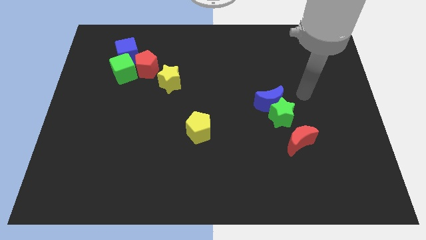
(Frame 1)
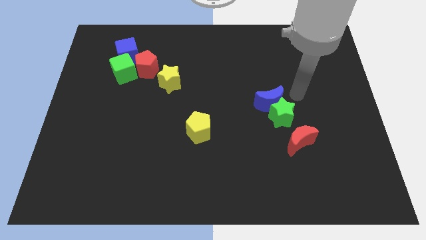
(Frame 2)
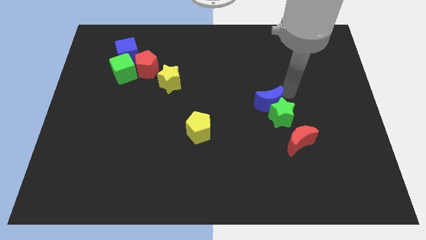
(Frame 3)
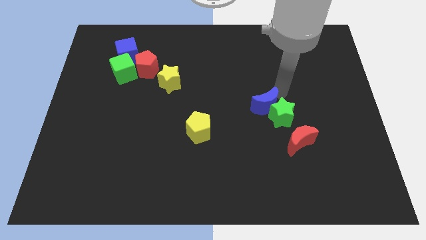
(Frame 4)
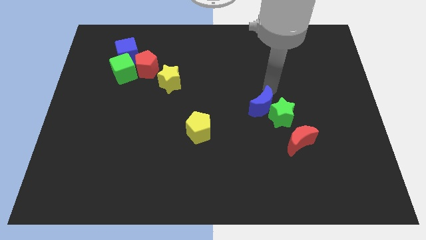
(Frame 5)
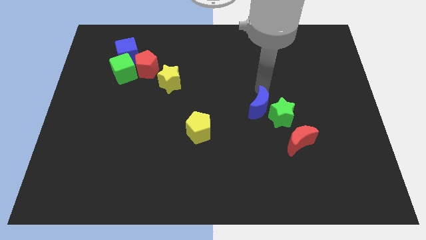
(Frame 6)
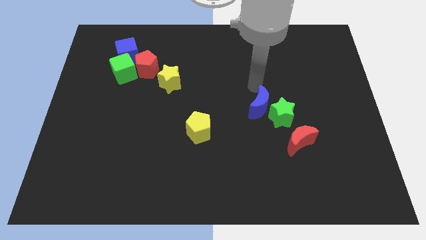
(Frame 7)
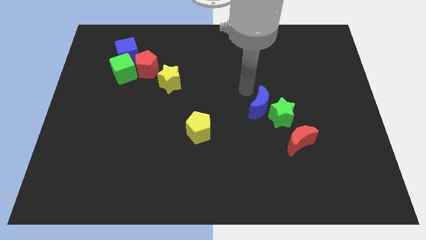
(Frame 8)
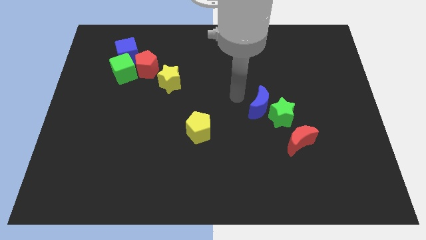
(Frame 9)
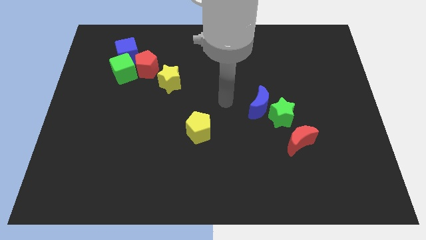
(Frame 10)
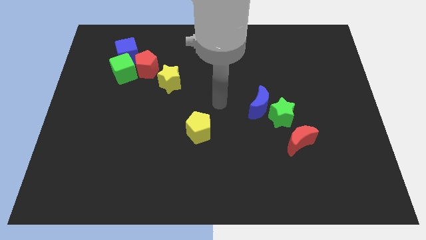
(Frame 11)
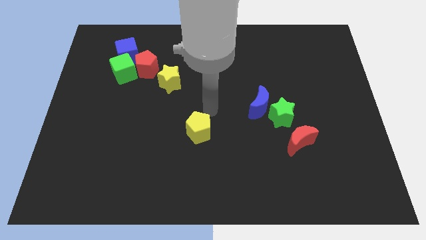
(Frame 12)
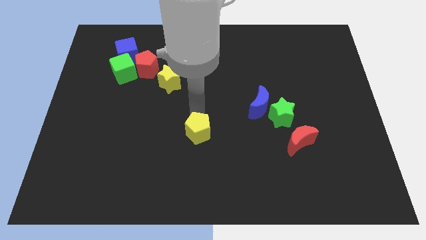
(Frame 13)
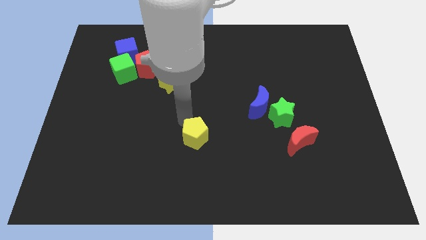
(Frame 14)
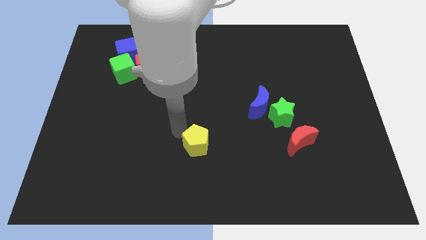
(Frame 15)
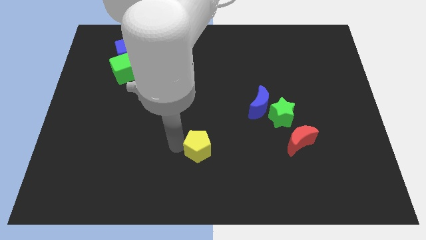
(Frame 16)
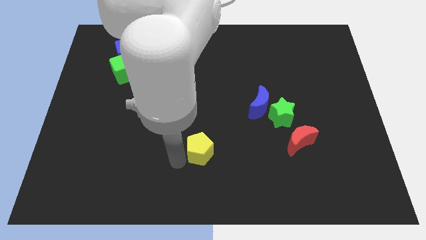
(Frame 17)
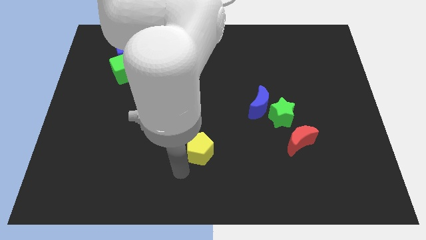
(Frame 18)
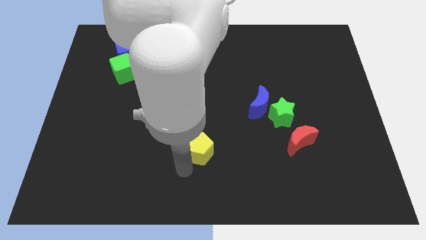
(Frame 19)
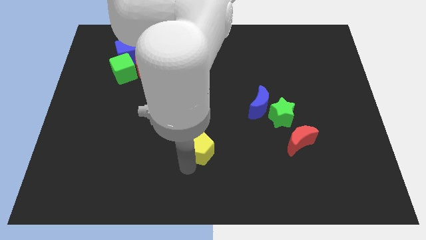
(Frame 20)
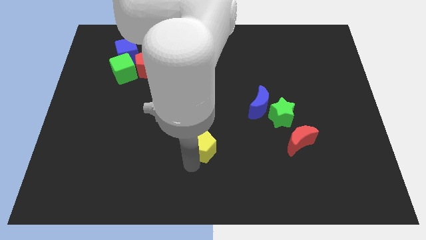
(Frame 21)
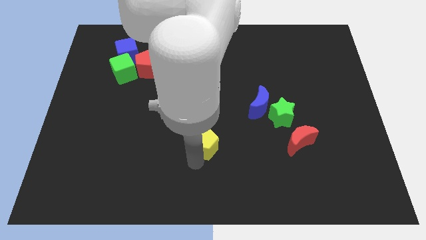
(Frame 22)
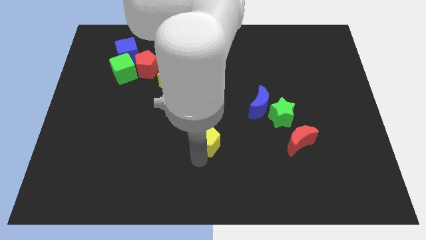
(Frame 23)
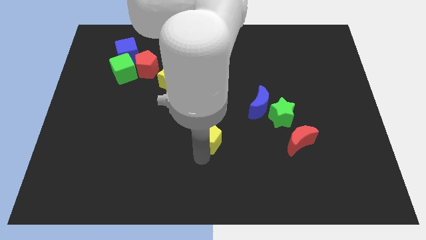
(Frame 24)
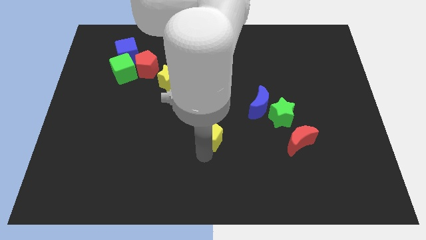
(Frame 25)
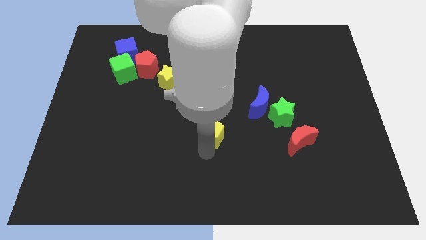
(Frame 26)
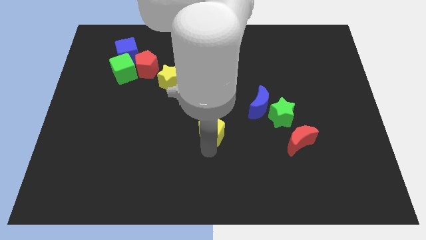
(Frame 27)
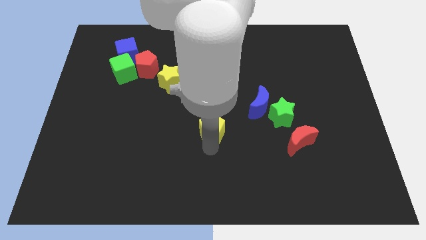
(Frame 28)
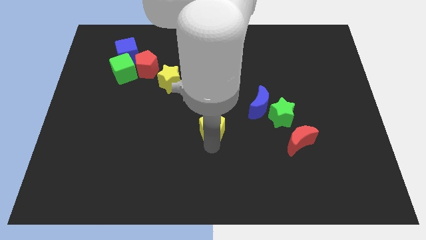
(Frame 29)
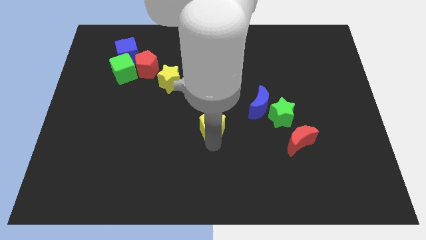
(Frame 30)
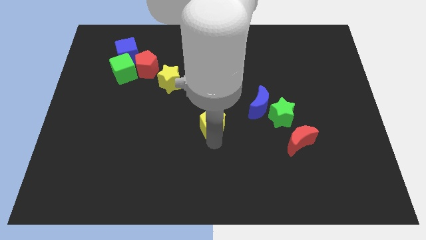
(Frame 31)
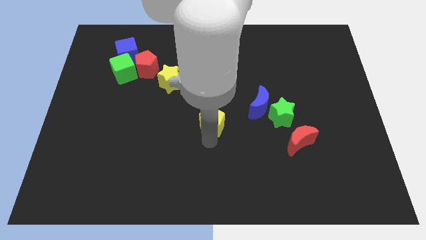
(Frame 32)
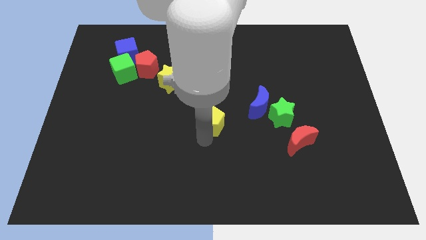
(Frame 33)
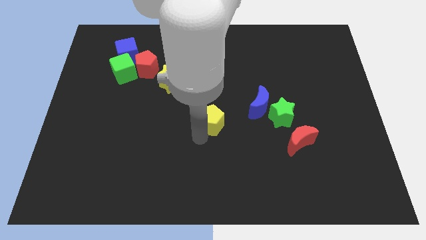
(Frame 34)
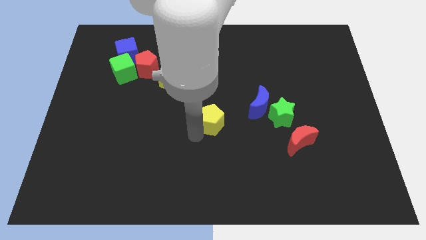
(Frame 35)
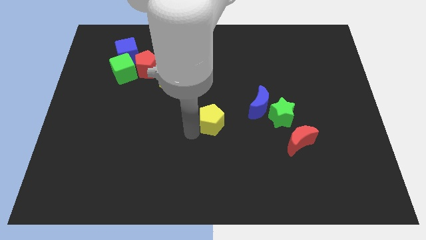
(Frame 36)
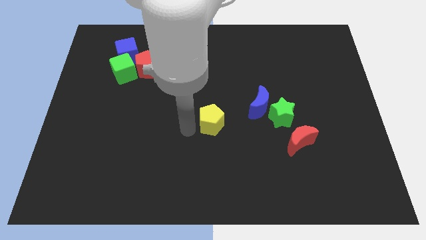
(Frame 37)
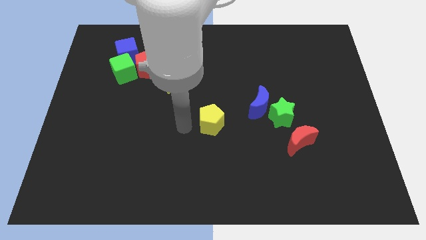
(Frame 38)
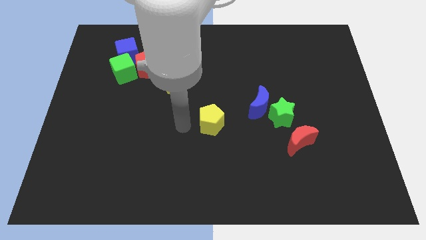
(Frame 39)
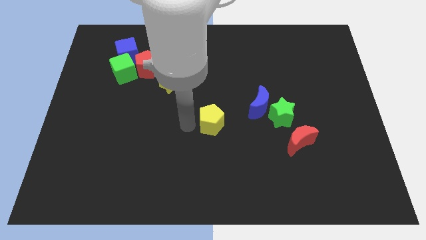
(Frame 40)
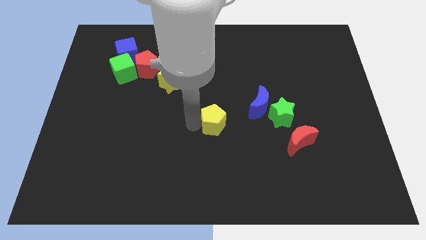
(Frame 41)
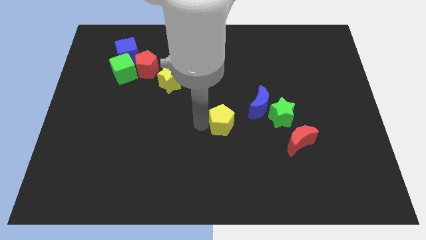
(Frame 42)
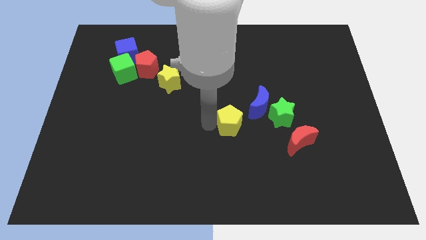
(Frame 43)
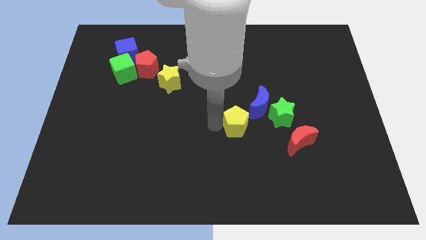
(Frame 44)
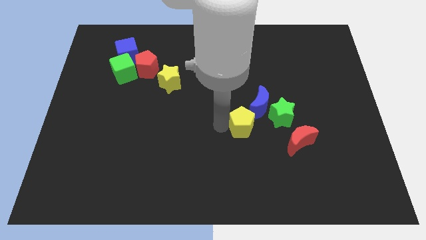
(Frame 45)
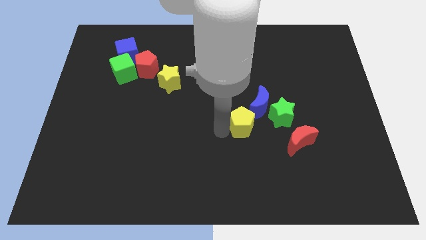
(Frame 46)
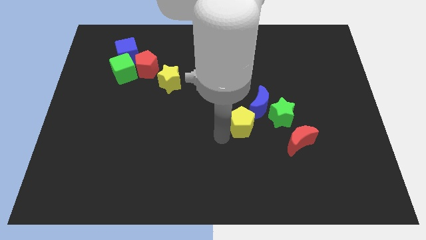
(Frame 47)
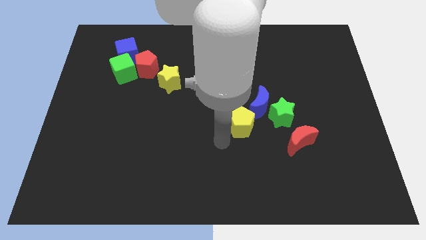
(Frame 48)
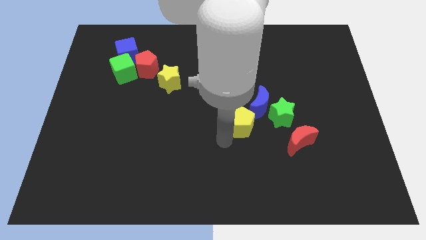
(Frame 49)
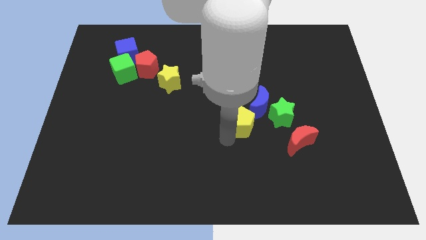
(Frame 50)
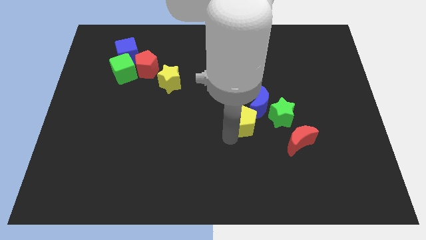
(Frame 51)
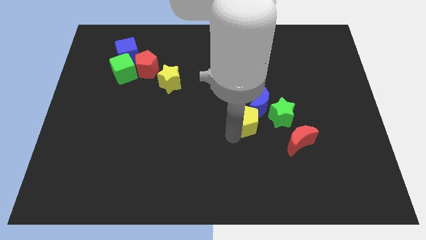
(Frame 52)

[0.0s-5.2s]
put the yellow pentagon next to the blue moon

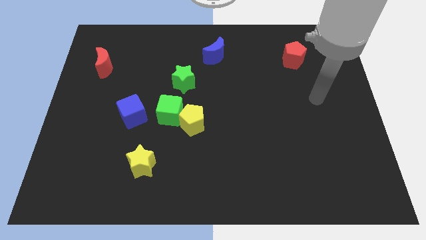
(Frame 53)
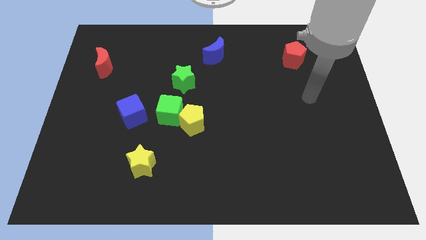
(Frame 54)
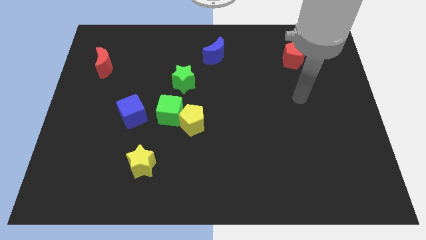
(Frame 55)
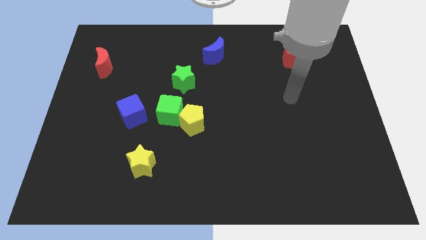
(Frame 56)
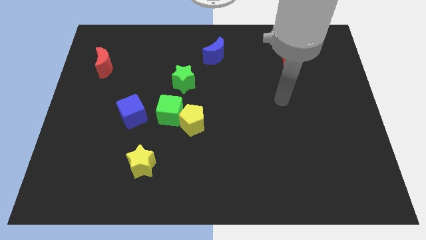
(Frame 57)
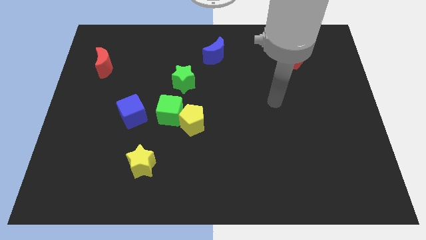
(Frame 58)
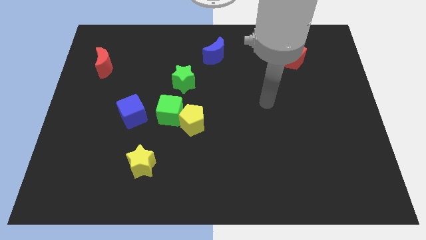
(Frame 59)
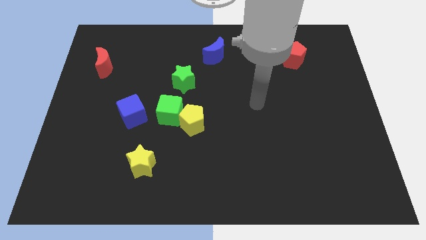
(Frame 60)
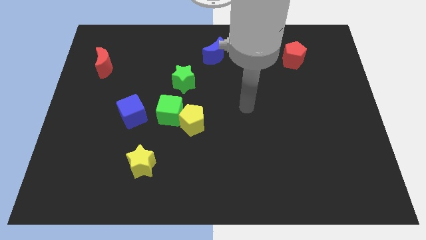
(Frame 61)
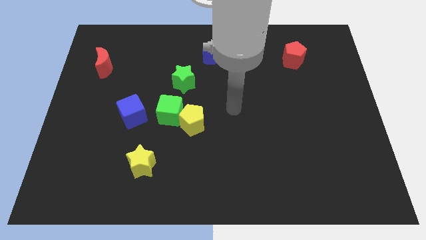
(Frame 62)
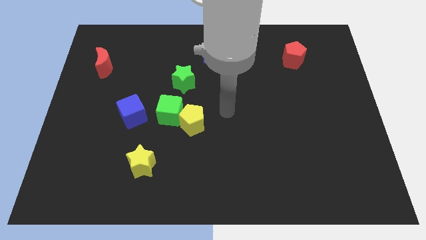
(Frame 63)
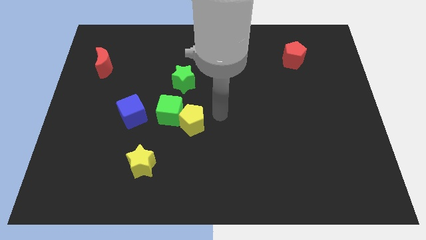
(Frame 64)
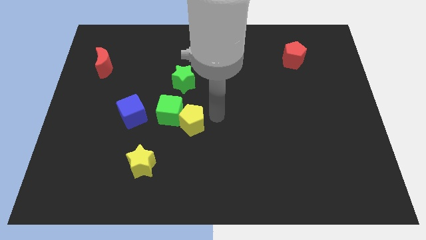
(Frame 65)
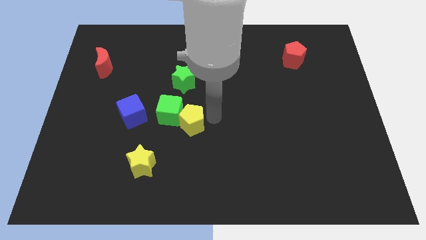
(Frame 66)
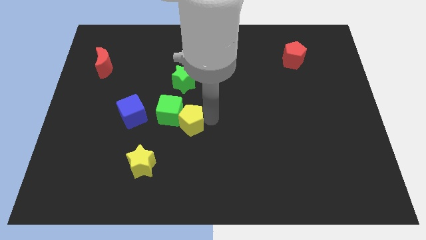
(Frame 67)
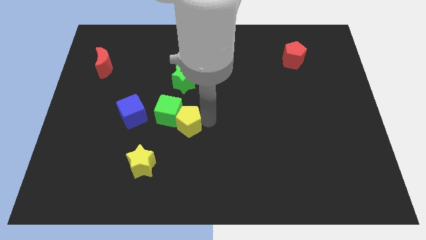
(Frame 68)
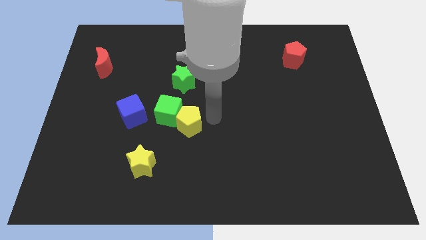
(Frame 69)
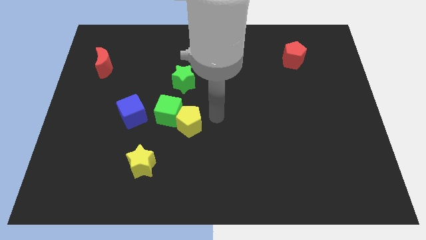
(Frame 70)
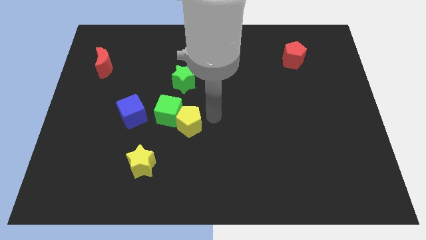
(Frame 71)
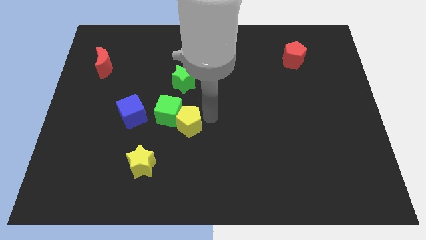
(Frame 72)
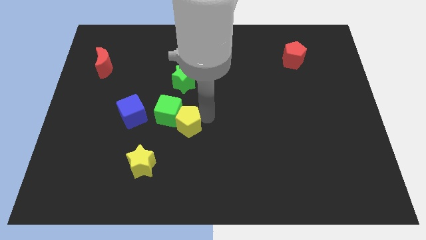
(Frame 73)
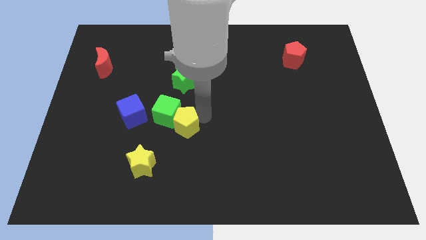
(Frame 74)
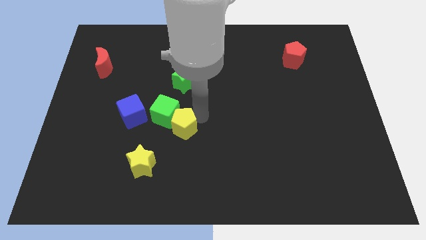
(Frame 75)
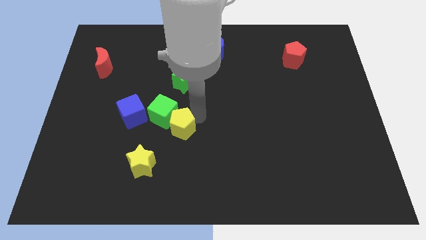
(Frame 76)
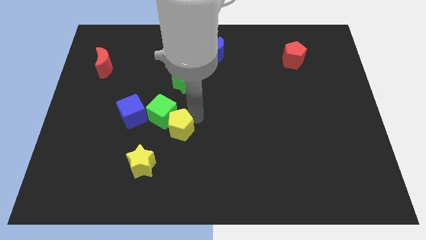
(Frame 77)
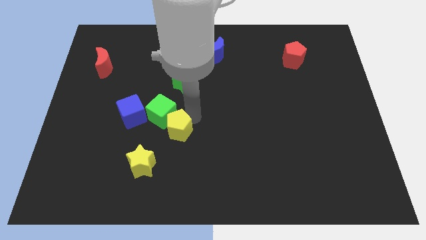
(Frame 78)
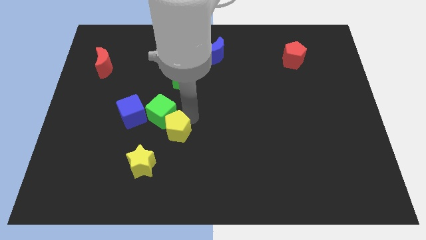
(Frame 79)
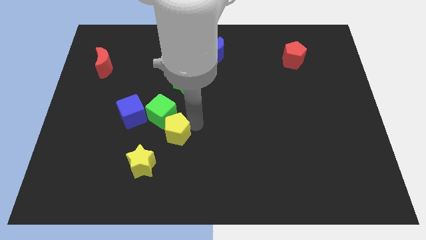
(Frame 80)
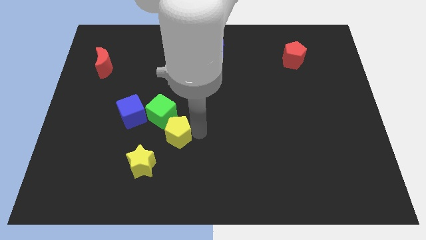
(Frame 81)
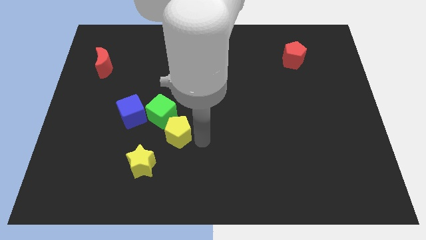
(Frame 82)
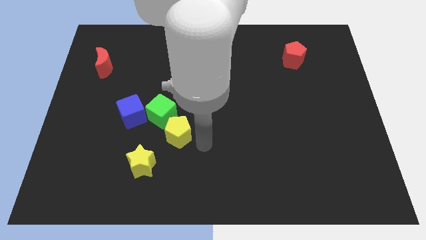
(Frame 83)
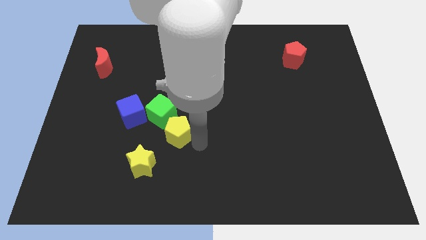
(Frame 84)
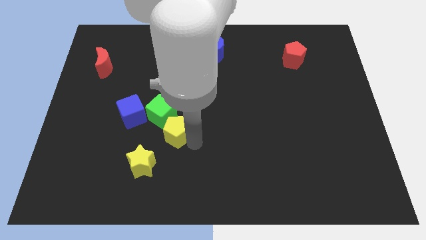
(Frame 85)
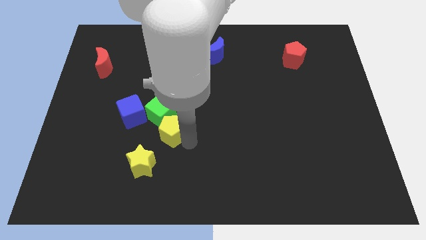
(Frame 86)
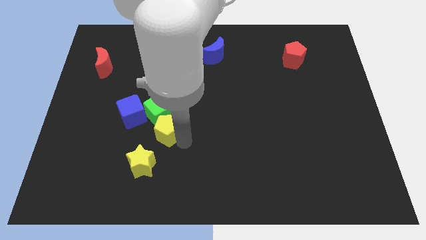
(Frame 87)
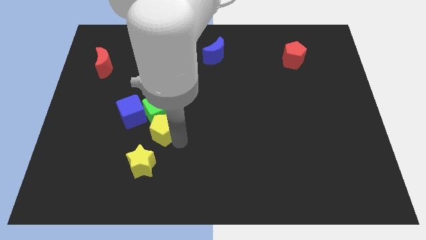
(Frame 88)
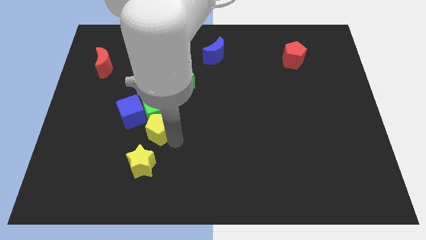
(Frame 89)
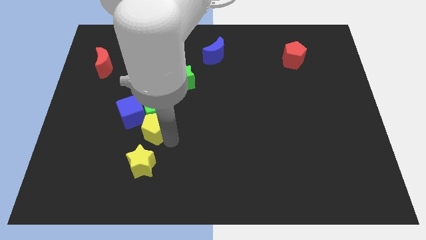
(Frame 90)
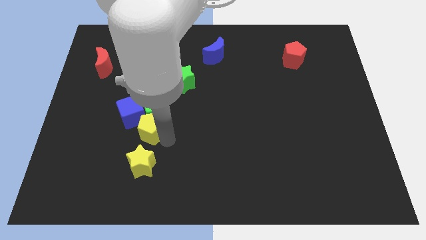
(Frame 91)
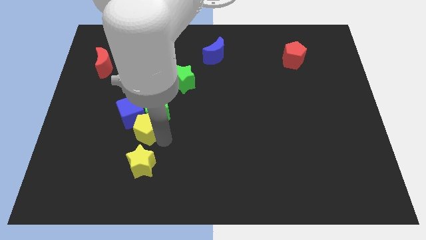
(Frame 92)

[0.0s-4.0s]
put the yellow pentagon towards the blue cube
